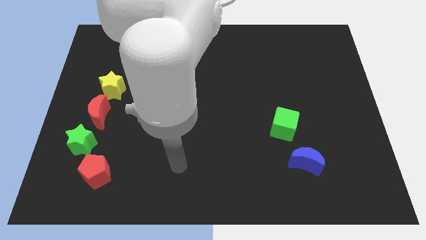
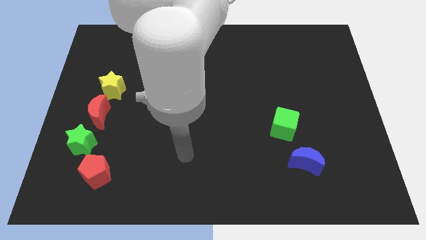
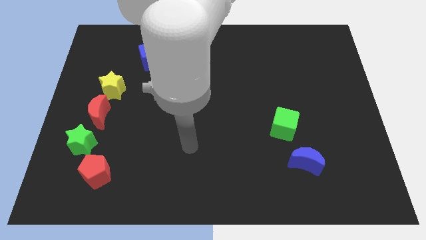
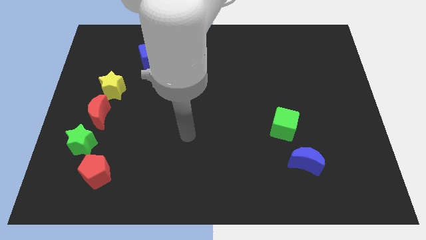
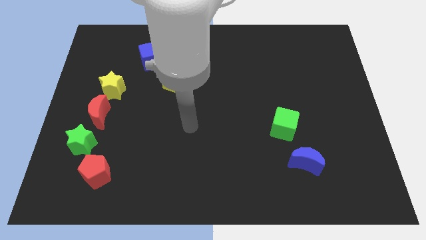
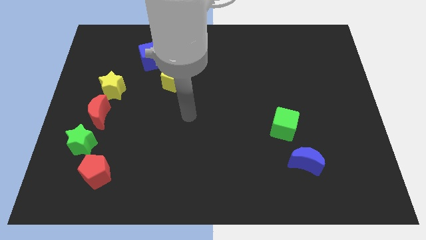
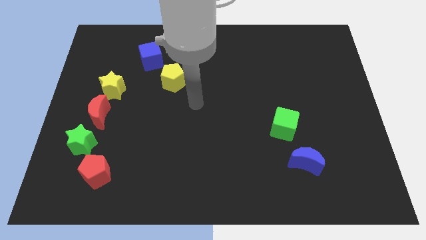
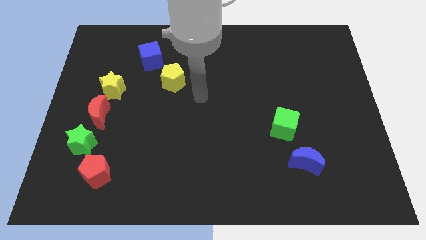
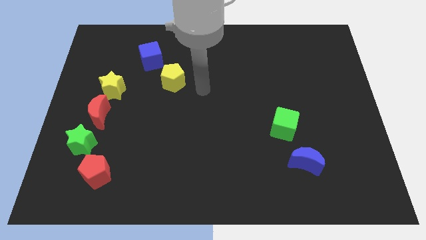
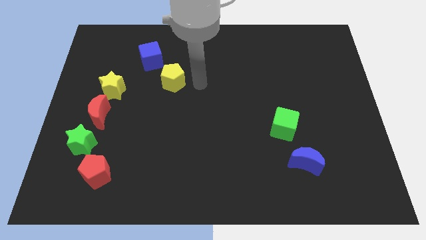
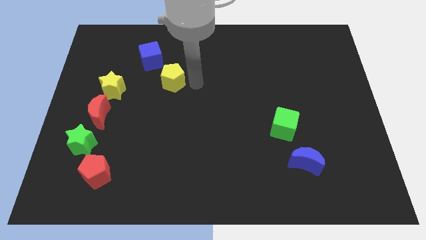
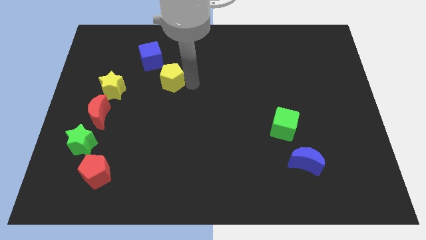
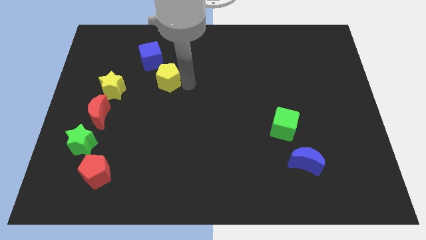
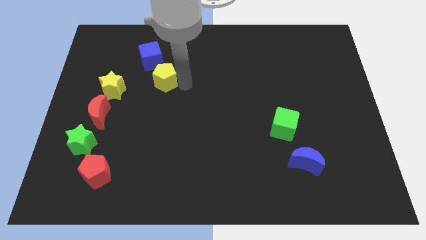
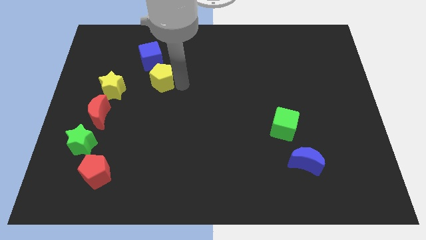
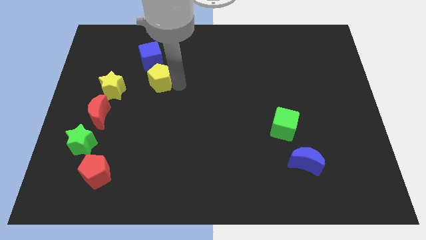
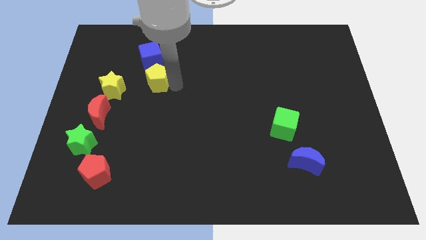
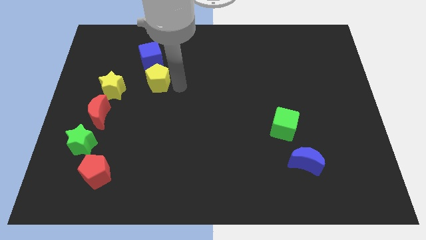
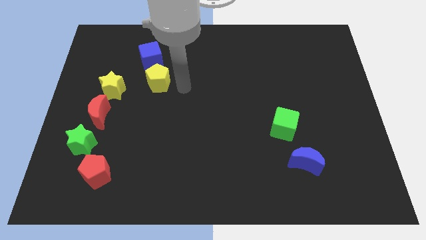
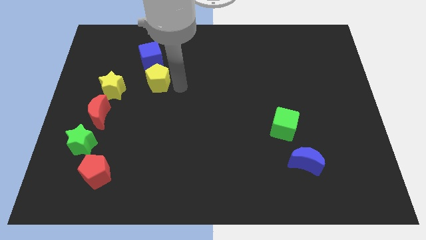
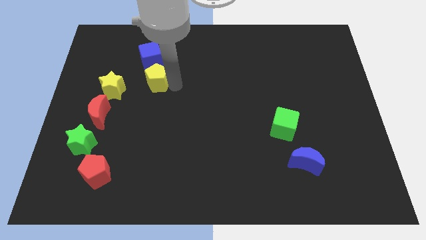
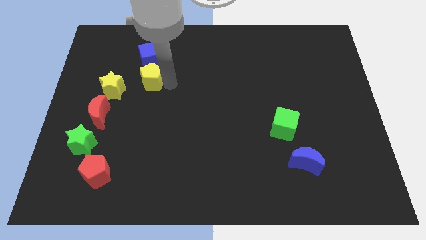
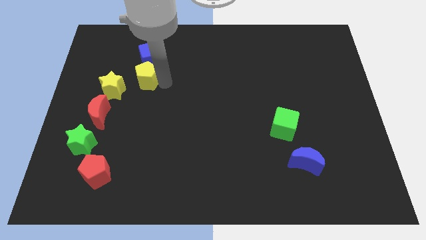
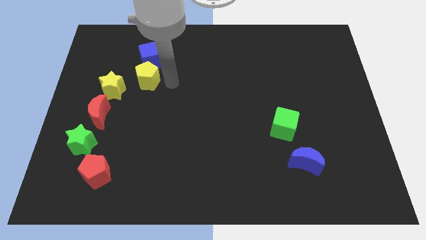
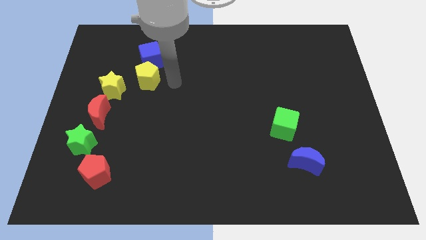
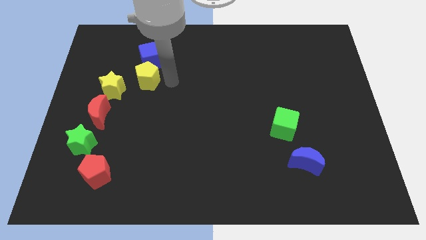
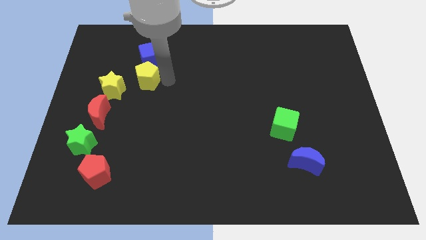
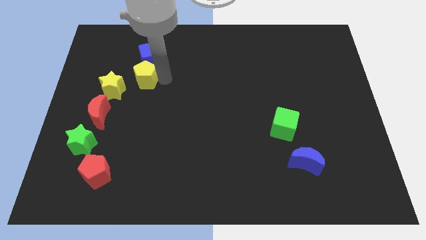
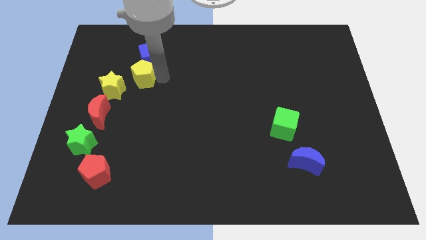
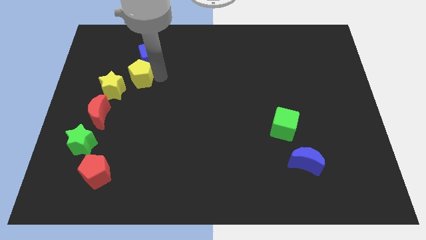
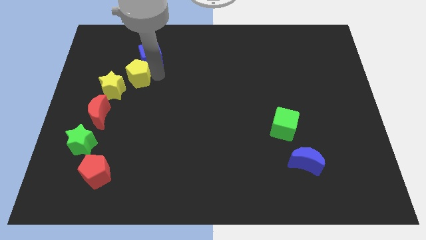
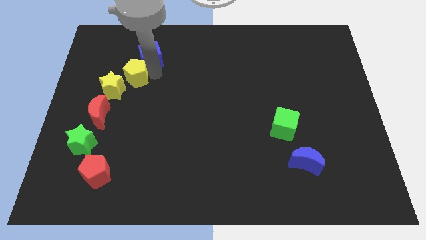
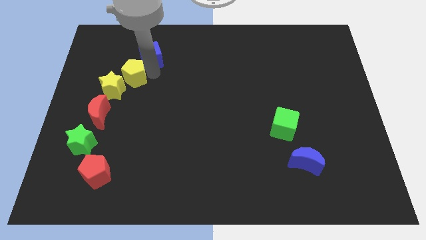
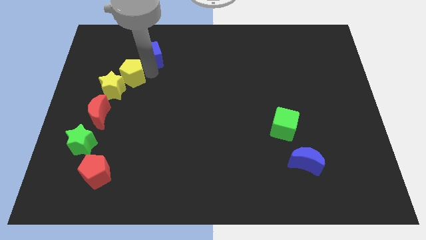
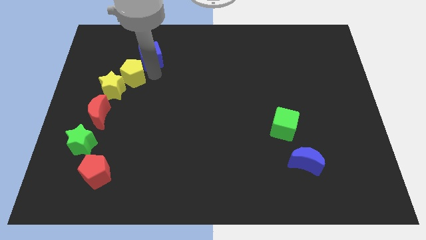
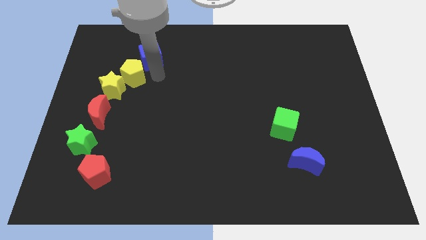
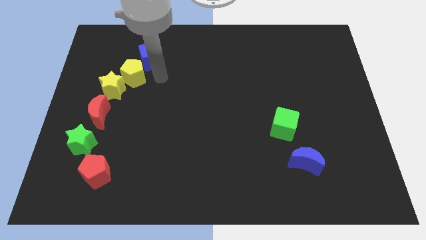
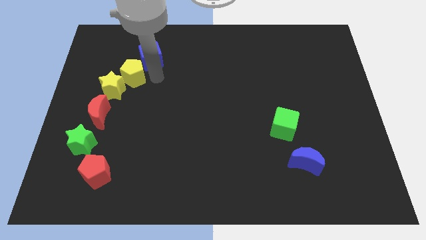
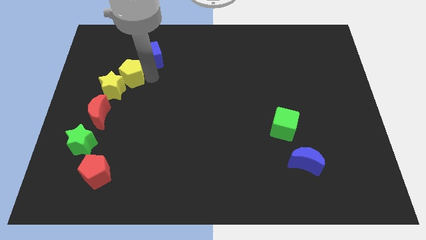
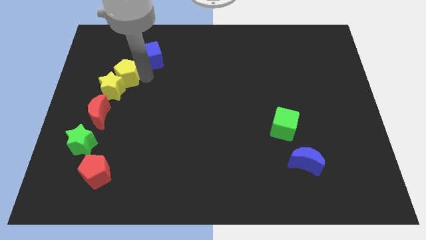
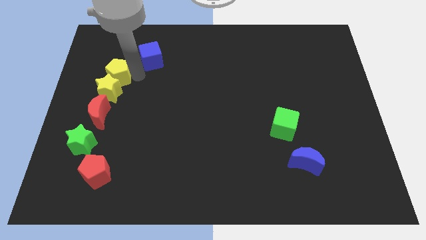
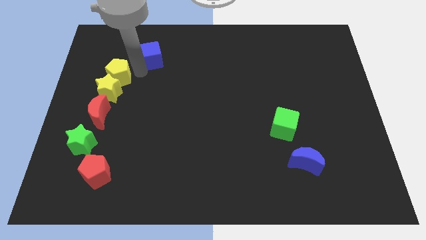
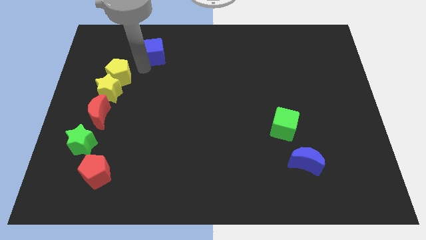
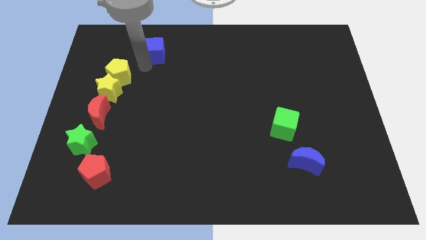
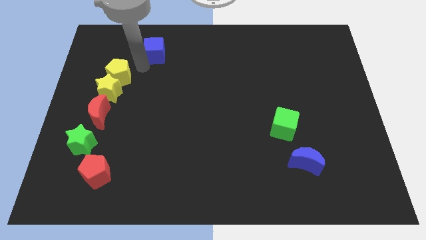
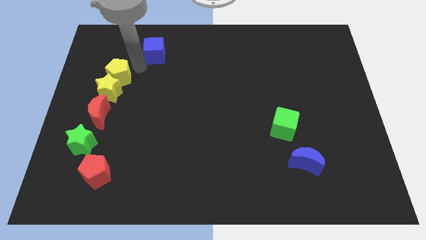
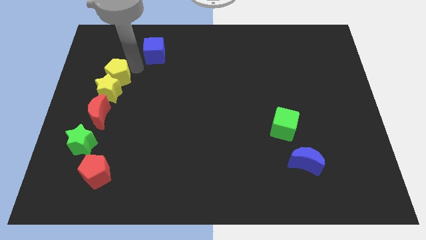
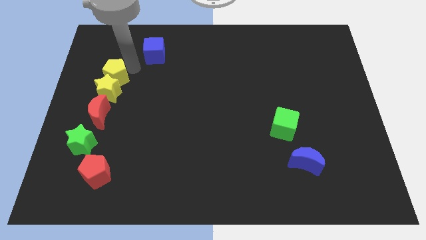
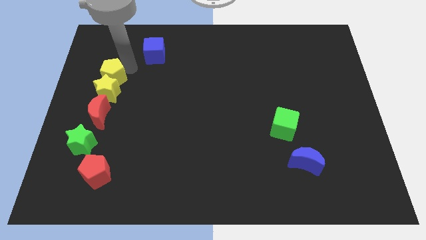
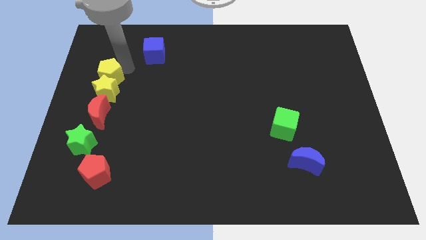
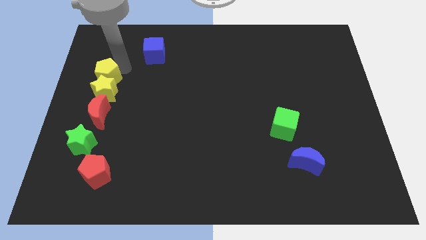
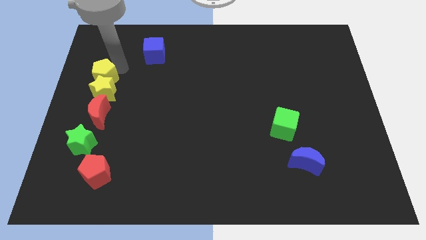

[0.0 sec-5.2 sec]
slide the yellow pentagon to the left side of the board

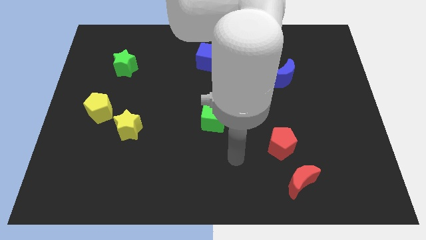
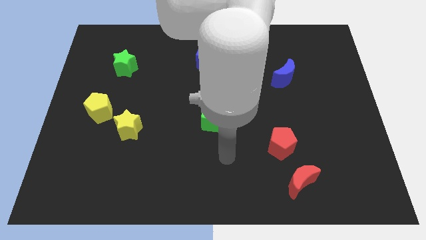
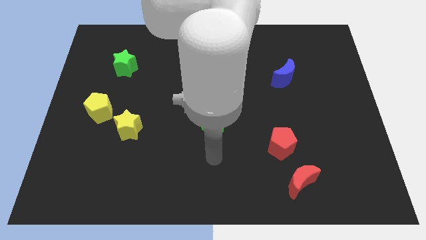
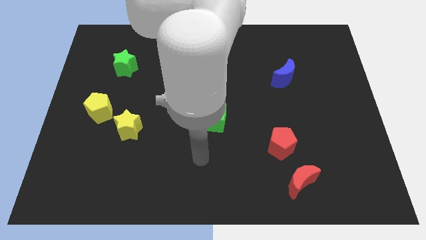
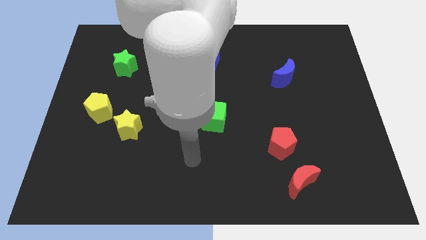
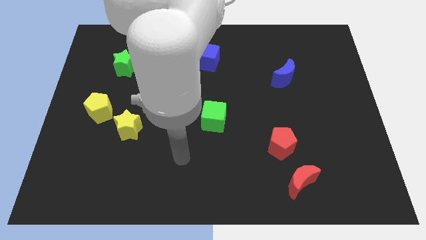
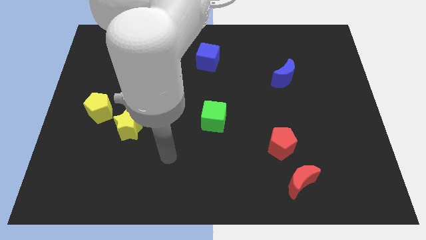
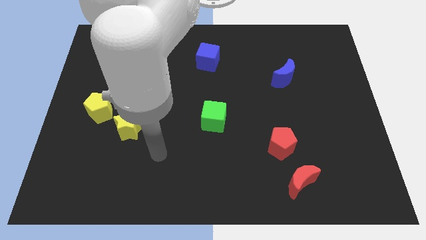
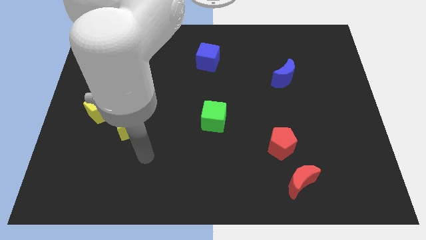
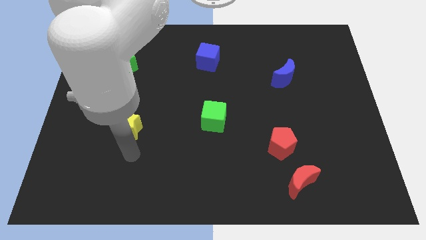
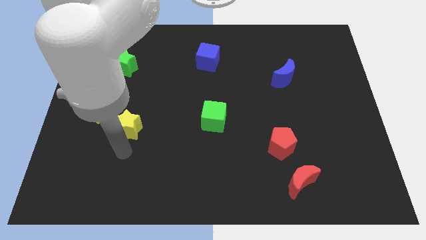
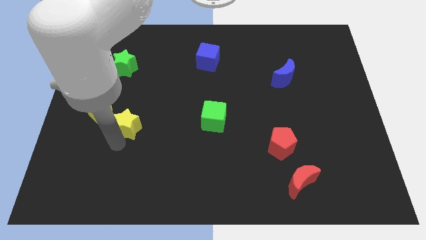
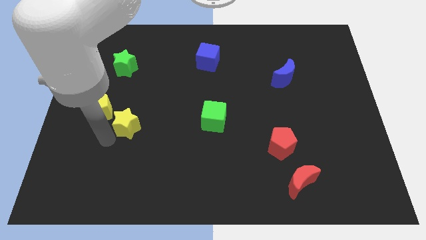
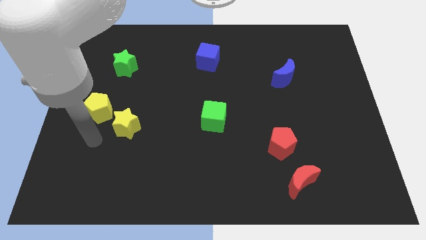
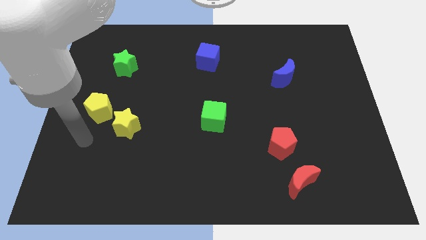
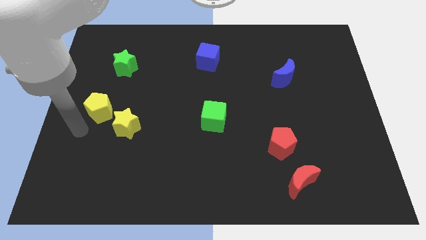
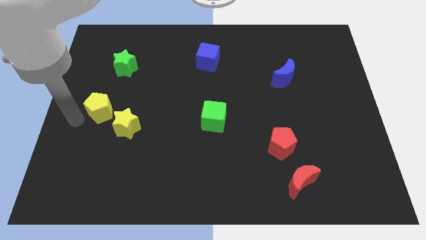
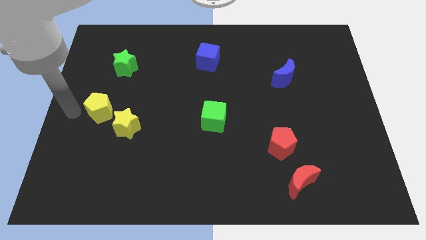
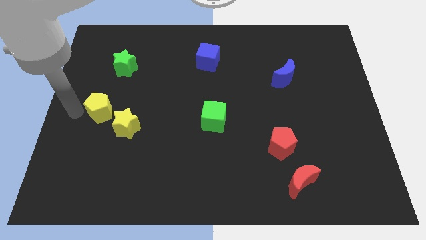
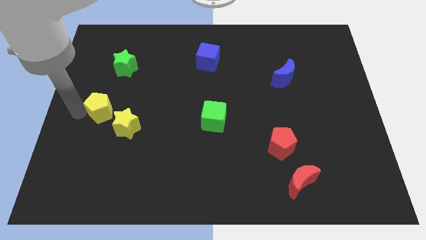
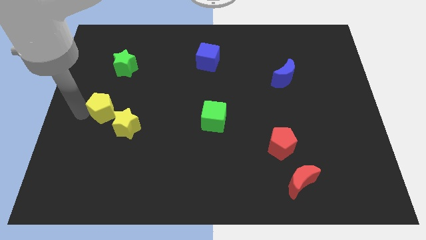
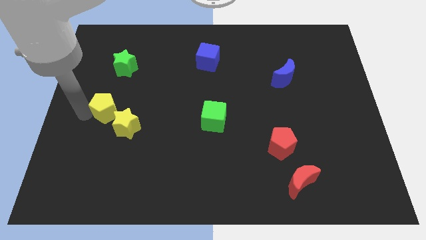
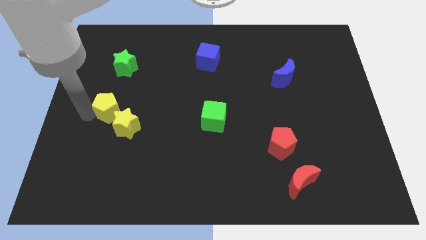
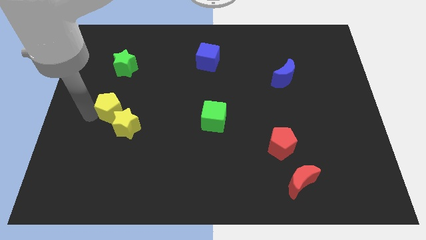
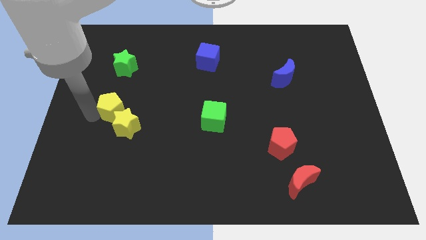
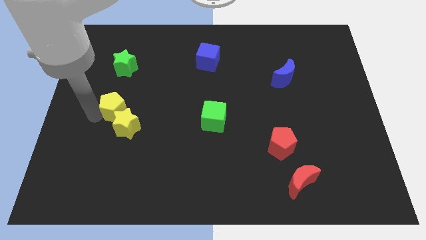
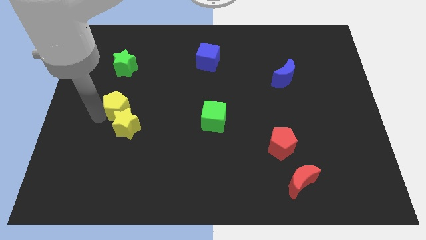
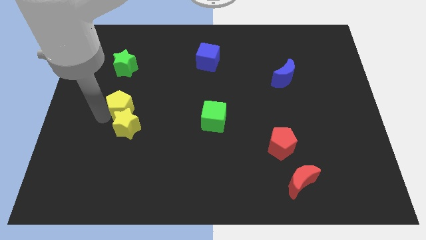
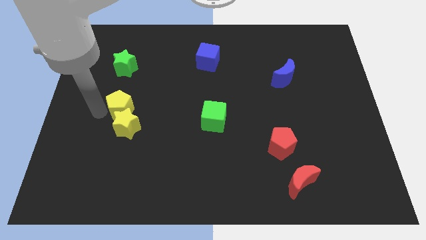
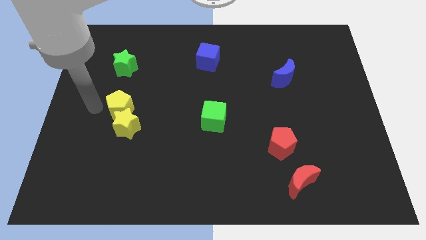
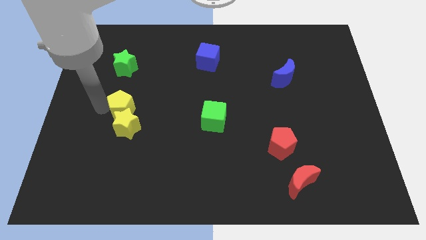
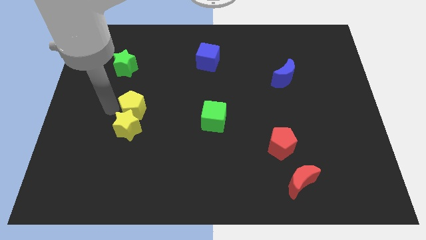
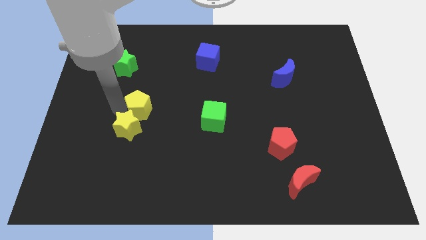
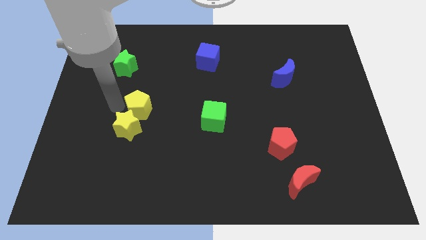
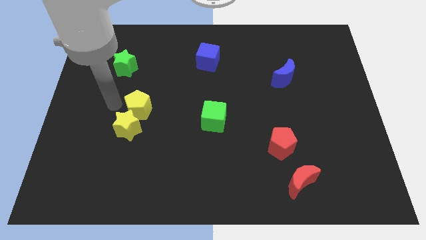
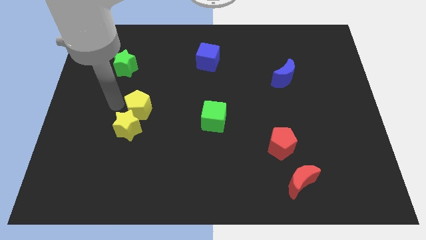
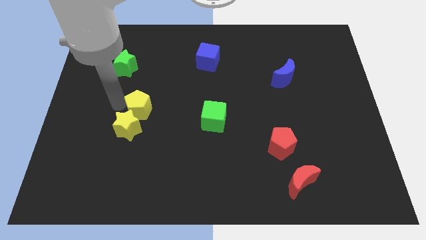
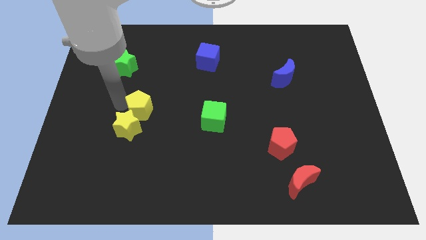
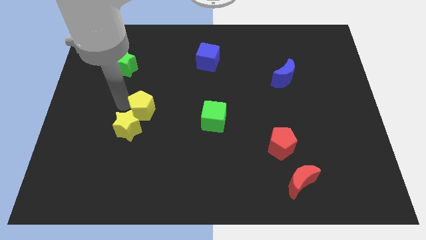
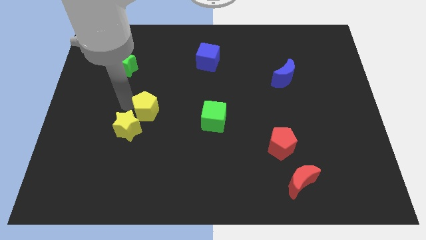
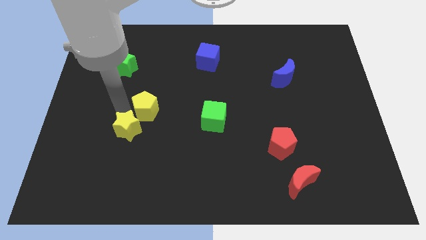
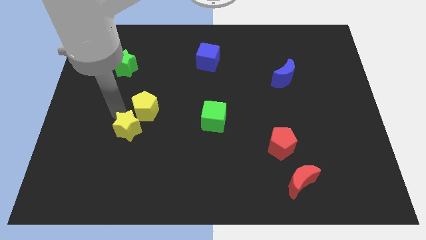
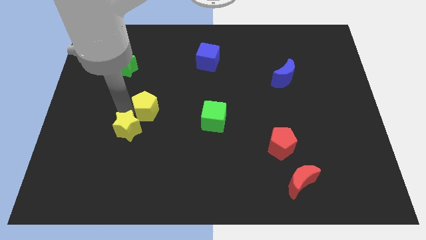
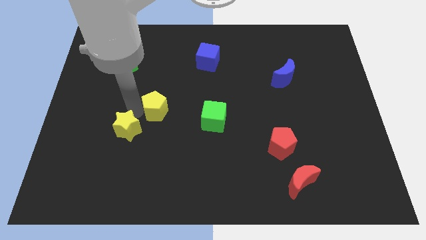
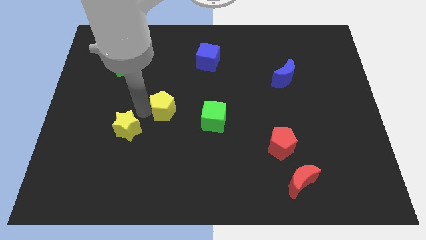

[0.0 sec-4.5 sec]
move the yellow pentagon to the center of the board
